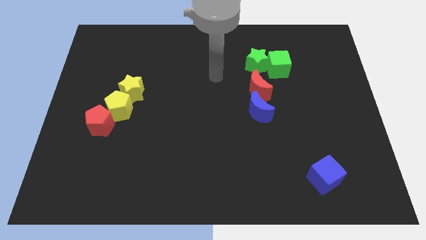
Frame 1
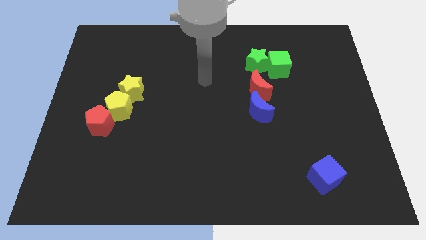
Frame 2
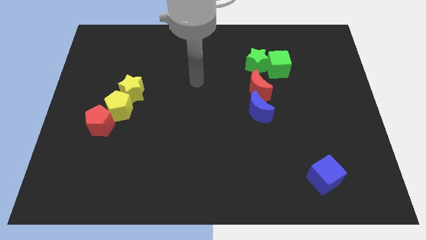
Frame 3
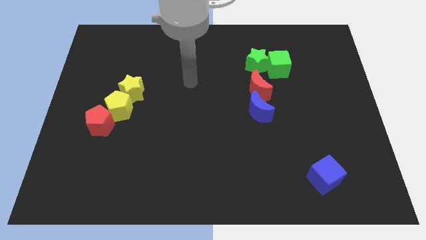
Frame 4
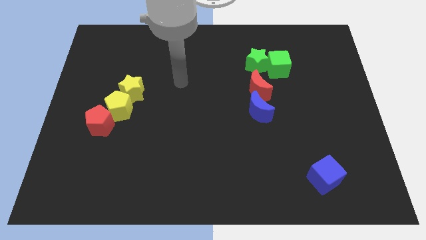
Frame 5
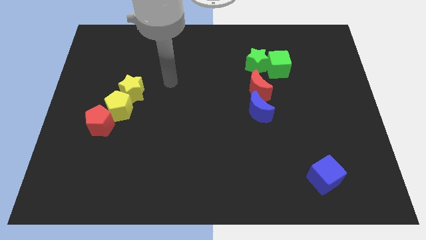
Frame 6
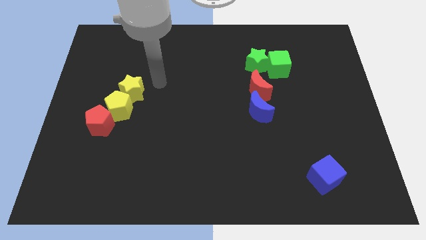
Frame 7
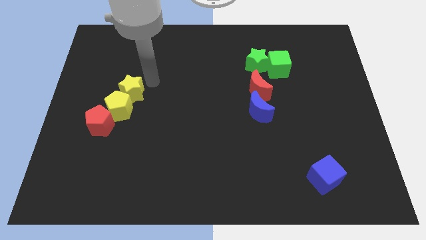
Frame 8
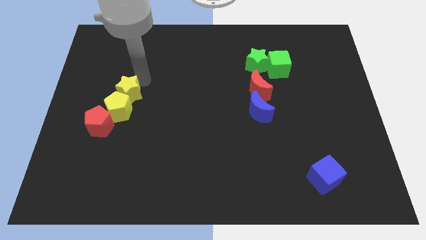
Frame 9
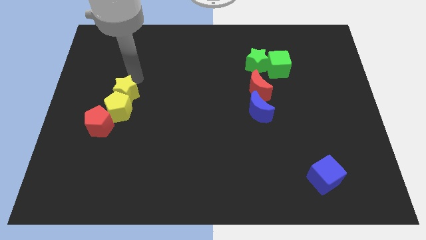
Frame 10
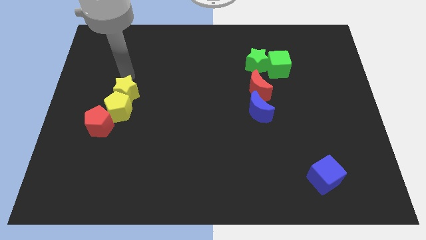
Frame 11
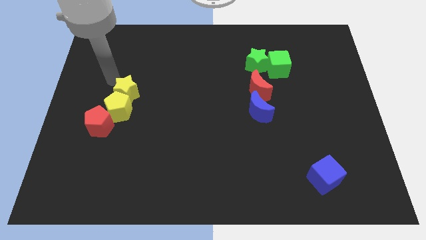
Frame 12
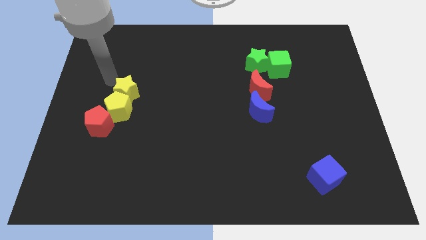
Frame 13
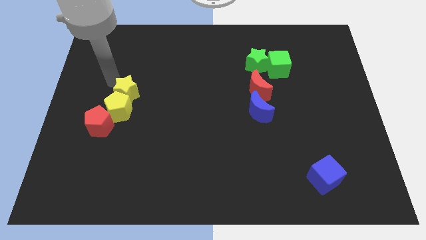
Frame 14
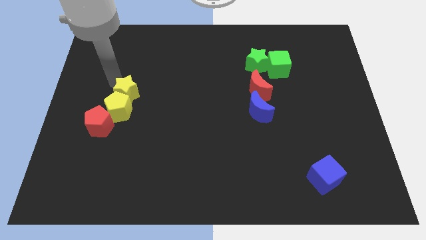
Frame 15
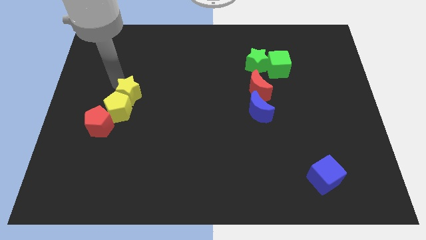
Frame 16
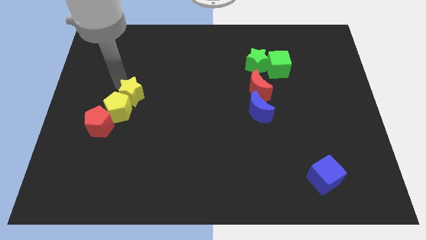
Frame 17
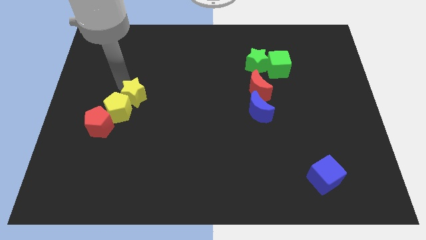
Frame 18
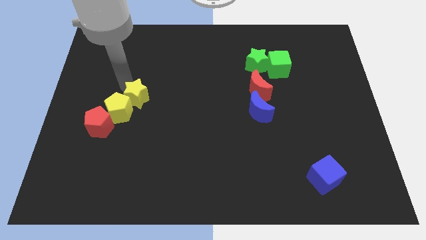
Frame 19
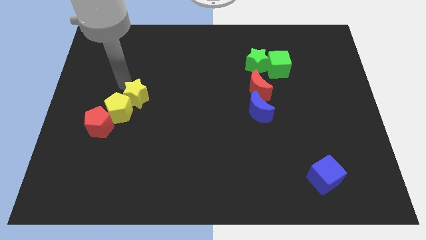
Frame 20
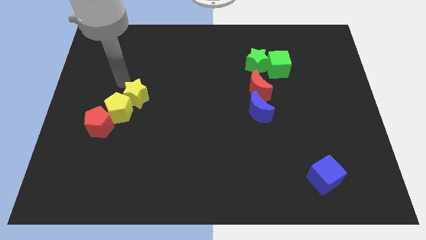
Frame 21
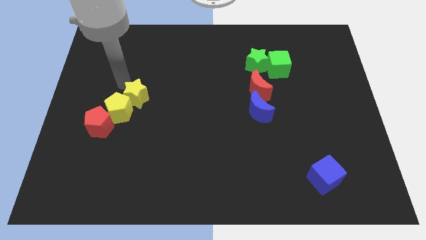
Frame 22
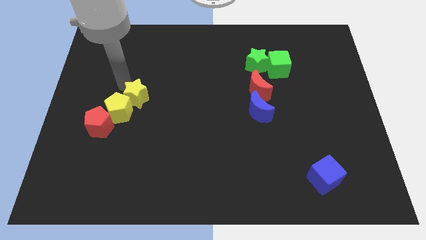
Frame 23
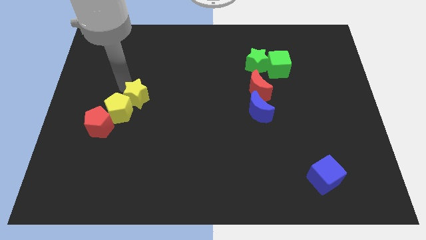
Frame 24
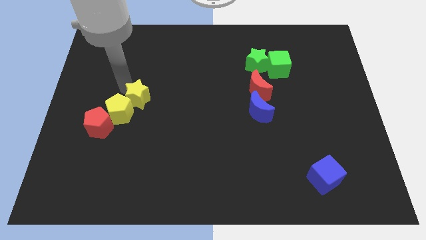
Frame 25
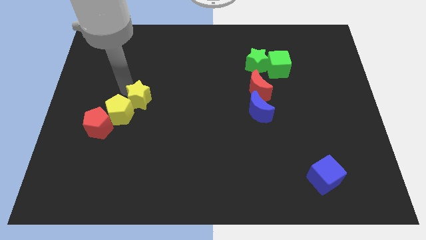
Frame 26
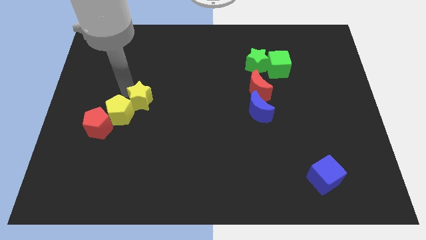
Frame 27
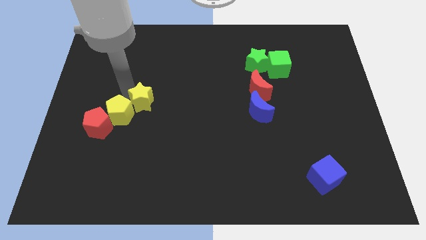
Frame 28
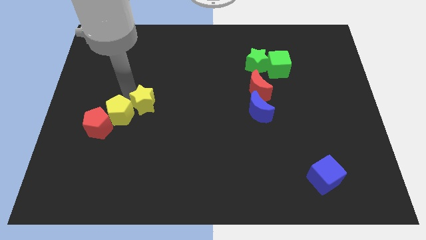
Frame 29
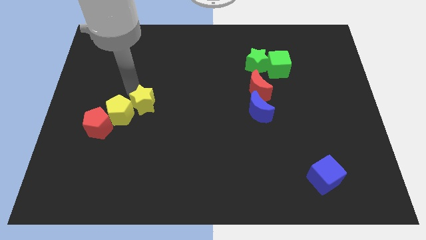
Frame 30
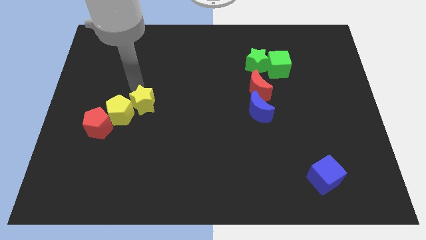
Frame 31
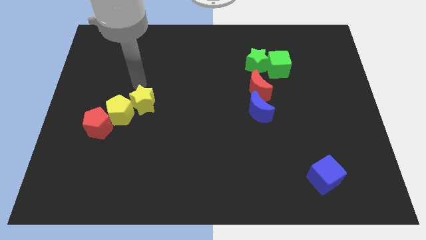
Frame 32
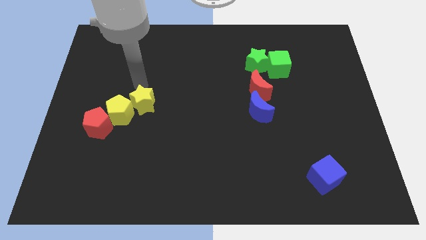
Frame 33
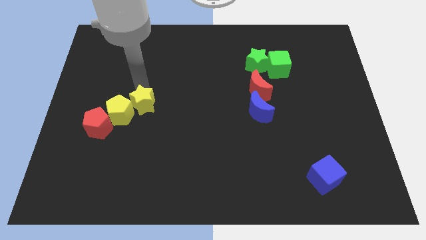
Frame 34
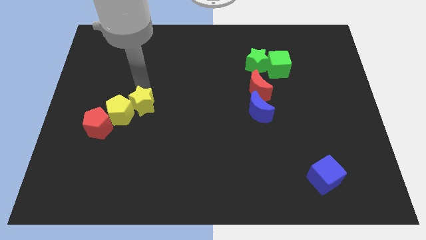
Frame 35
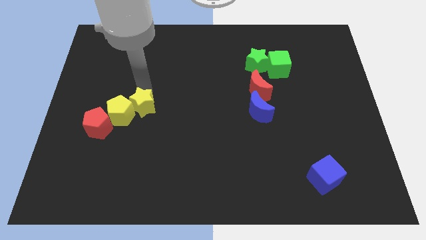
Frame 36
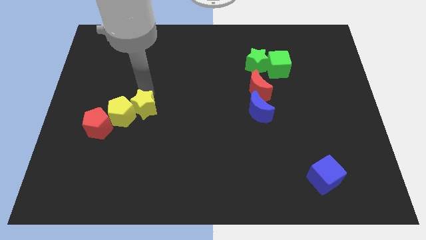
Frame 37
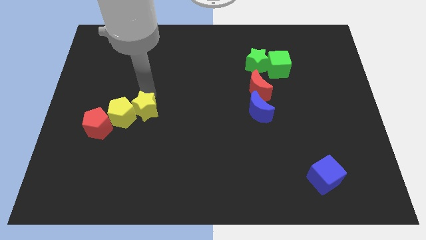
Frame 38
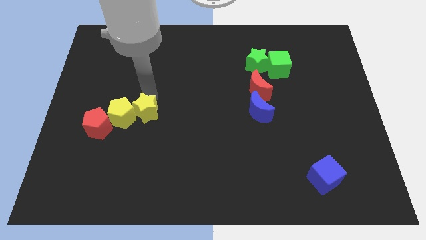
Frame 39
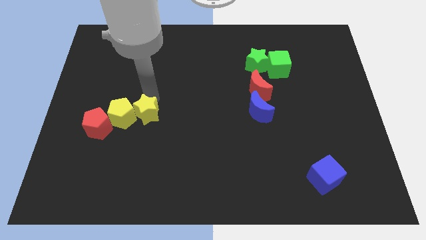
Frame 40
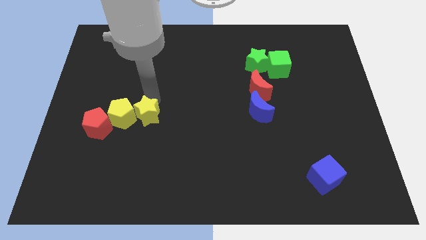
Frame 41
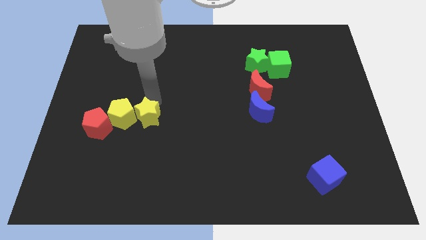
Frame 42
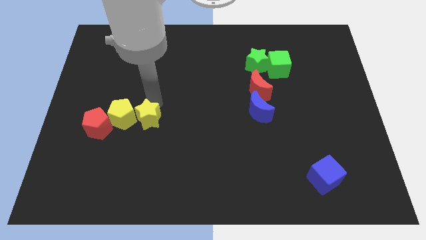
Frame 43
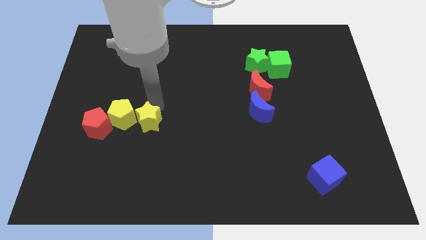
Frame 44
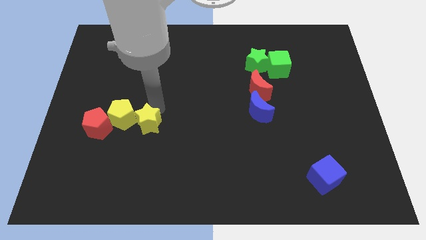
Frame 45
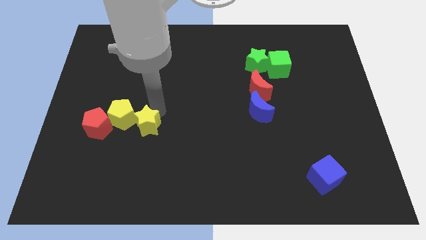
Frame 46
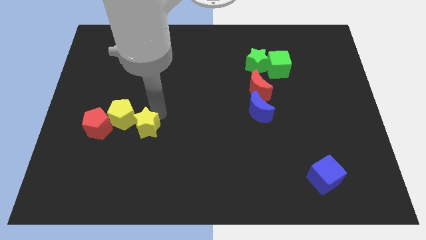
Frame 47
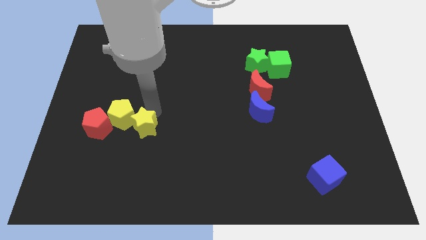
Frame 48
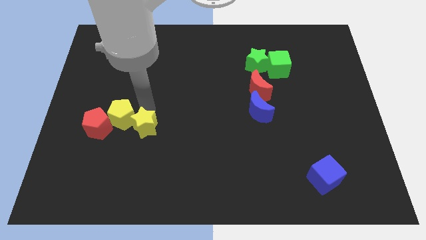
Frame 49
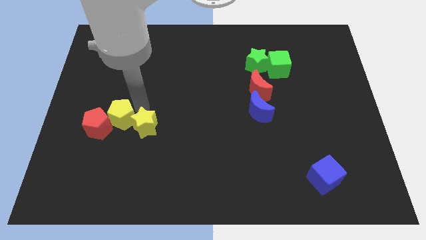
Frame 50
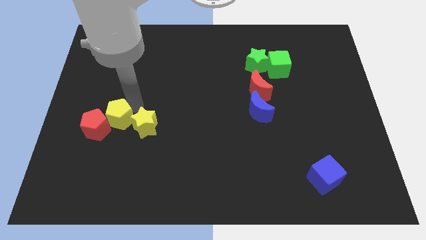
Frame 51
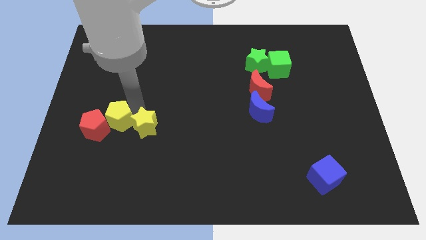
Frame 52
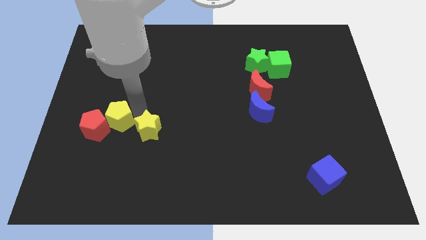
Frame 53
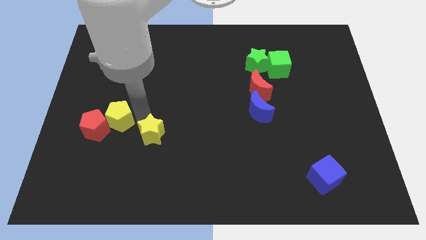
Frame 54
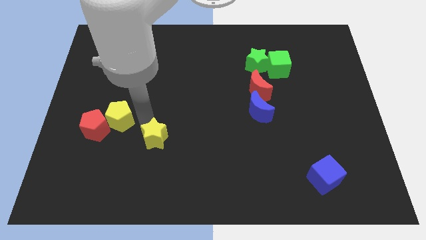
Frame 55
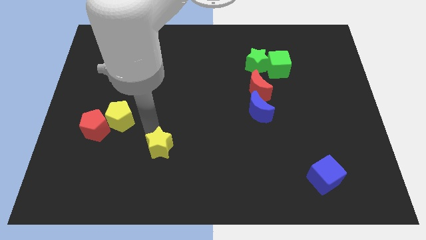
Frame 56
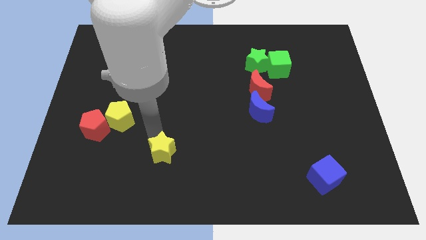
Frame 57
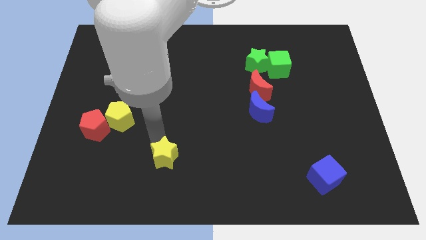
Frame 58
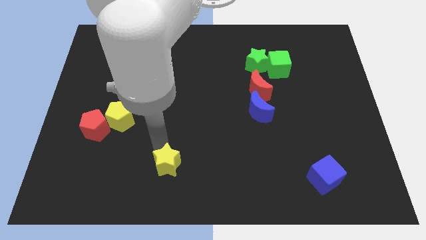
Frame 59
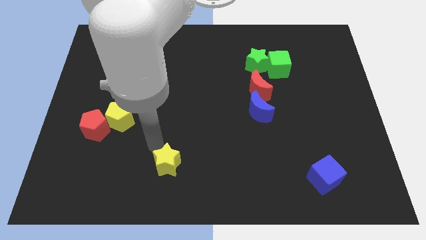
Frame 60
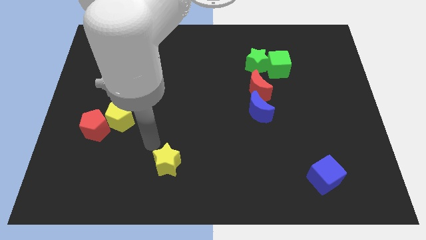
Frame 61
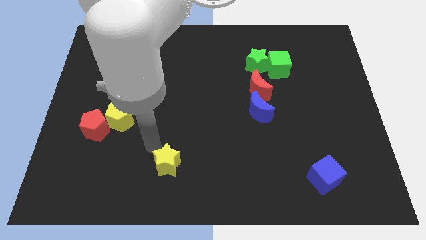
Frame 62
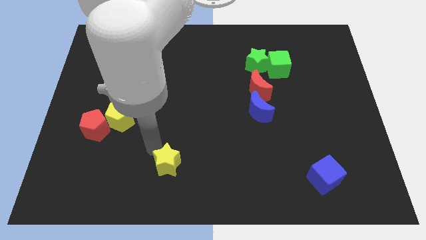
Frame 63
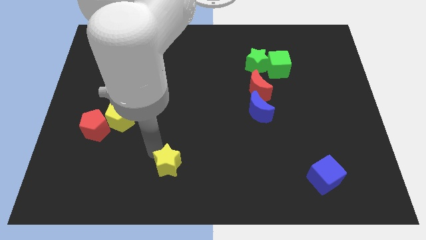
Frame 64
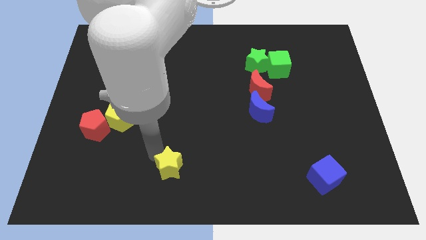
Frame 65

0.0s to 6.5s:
slide the yellow star to the bottom
